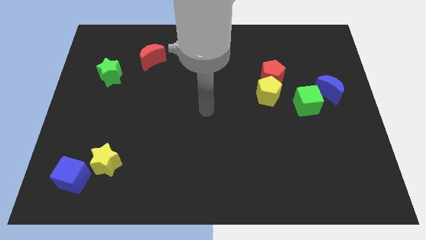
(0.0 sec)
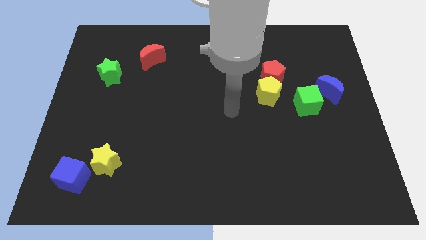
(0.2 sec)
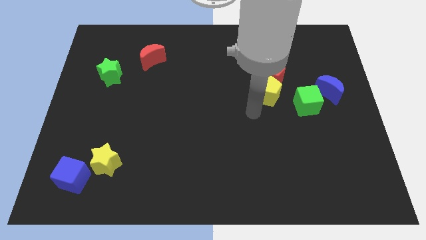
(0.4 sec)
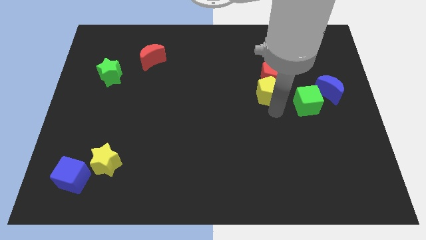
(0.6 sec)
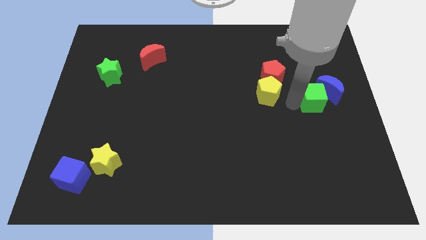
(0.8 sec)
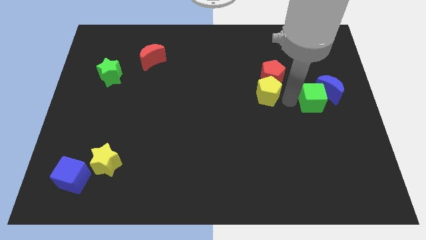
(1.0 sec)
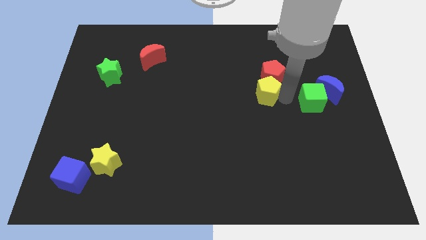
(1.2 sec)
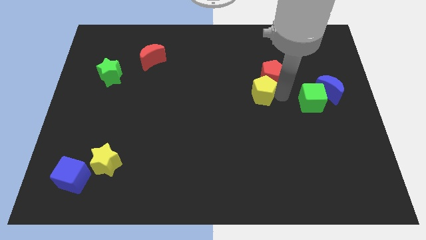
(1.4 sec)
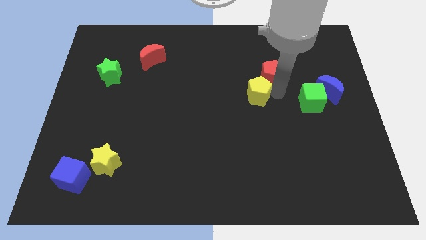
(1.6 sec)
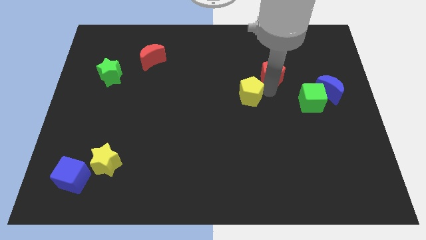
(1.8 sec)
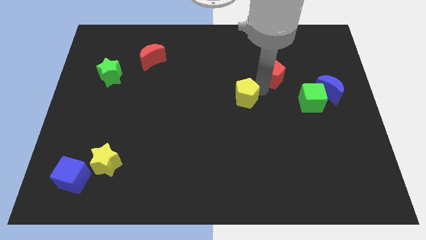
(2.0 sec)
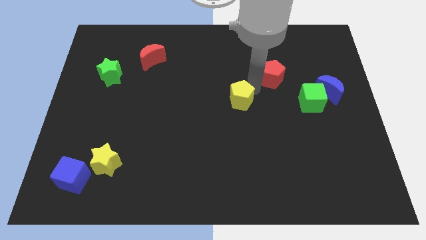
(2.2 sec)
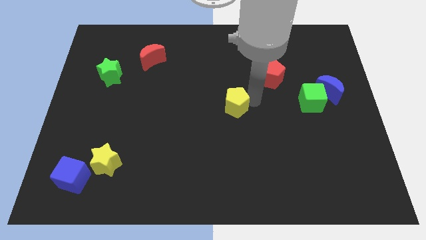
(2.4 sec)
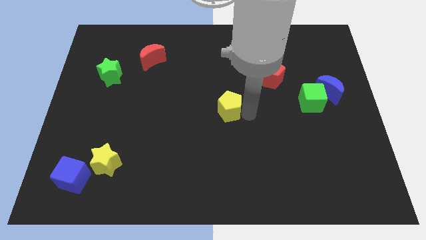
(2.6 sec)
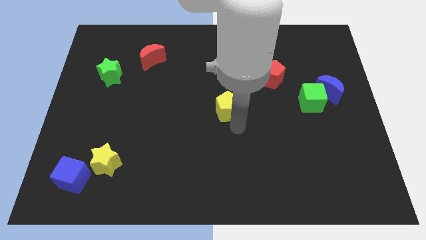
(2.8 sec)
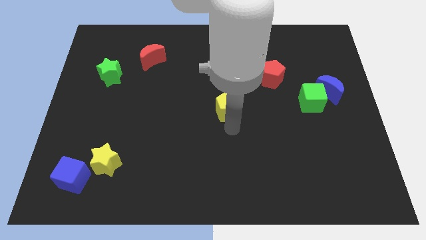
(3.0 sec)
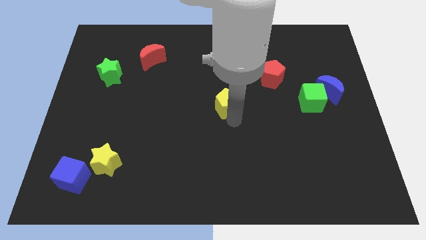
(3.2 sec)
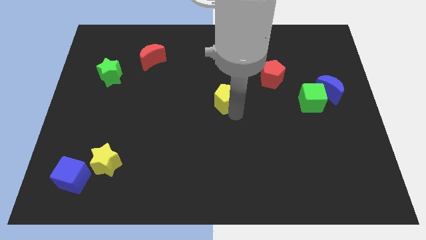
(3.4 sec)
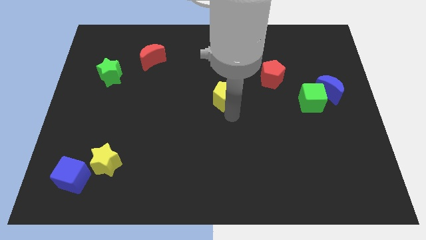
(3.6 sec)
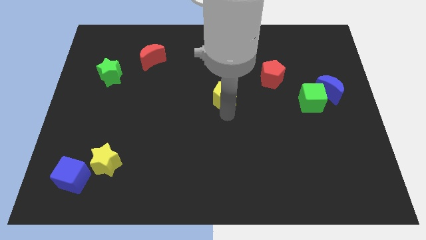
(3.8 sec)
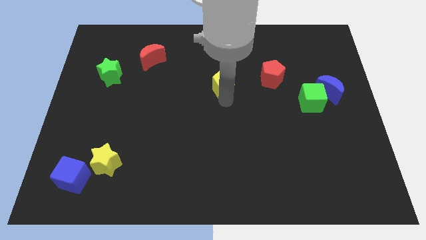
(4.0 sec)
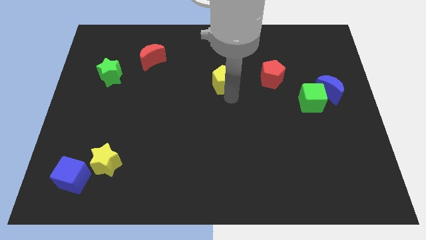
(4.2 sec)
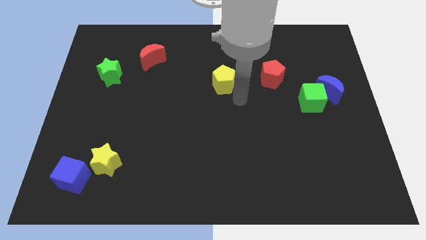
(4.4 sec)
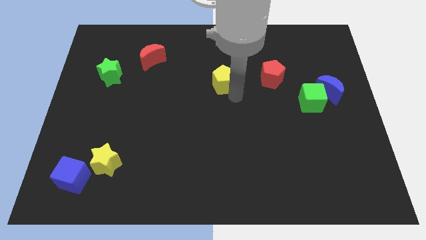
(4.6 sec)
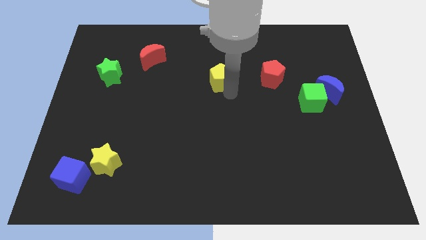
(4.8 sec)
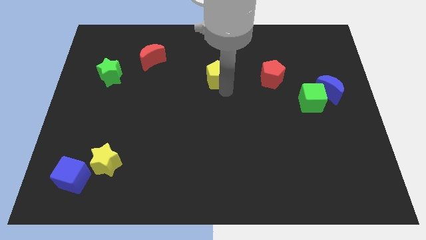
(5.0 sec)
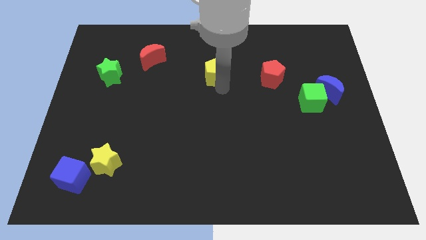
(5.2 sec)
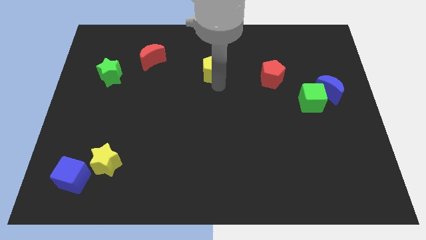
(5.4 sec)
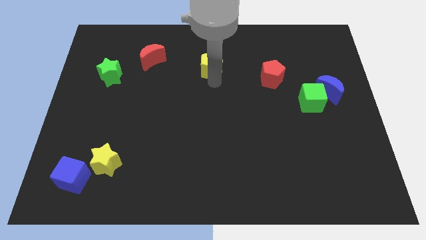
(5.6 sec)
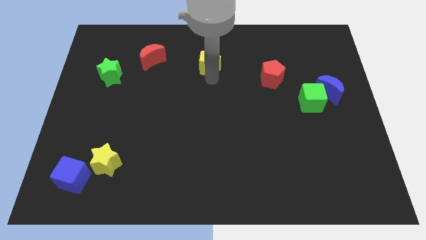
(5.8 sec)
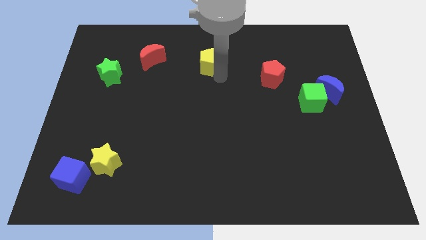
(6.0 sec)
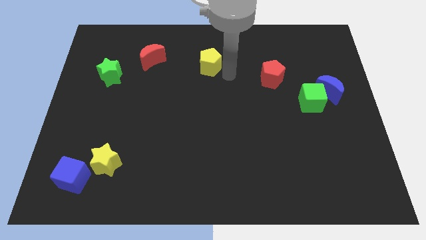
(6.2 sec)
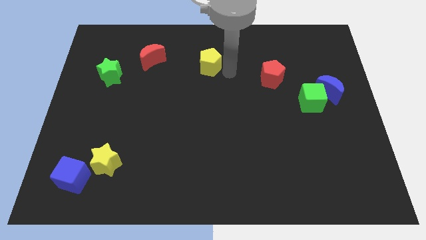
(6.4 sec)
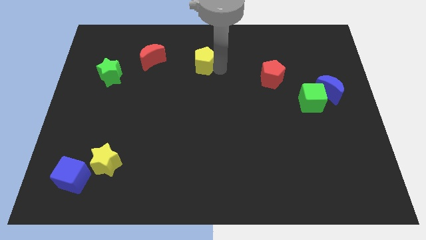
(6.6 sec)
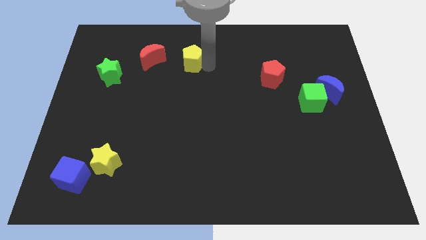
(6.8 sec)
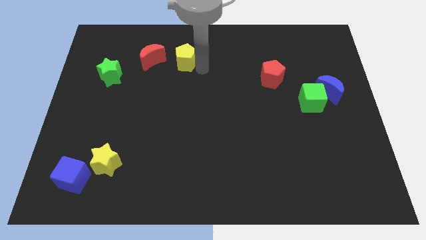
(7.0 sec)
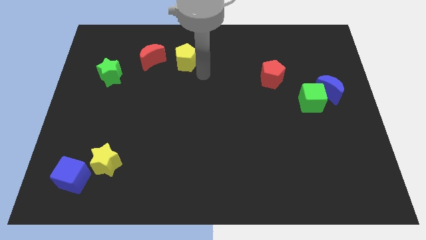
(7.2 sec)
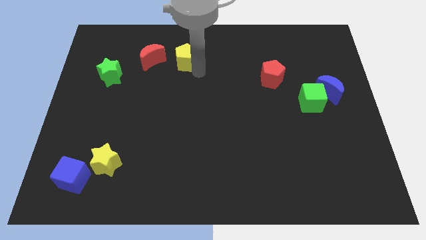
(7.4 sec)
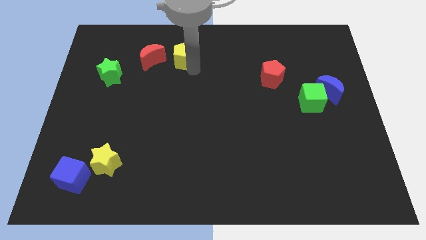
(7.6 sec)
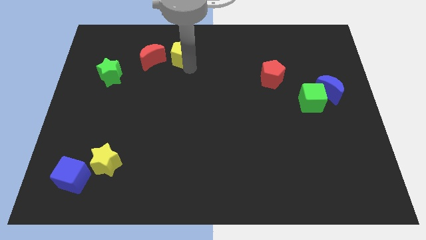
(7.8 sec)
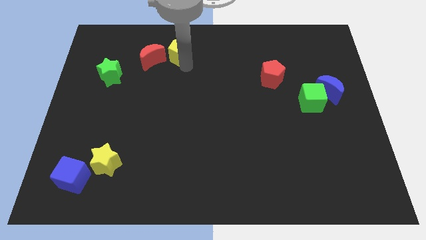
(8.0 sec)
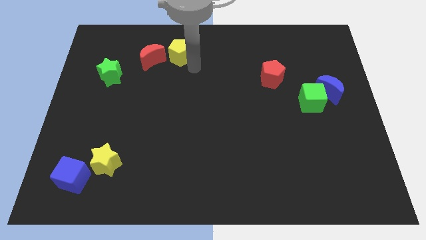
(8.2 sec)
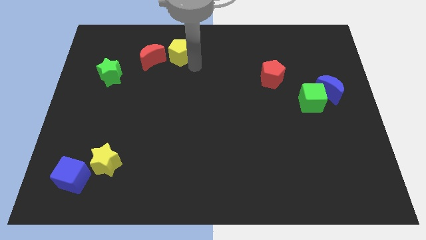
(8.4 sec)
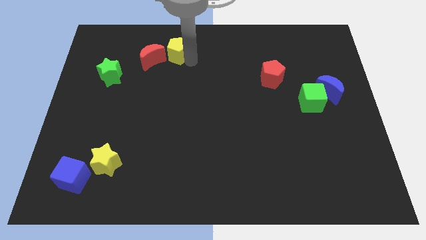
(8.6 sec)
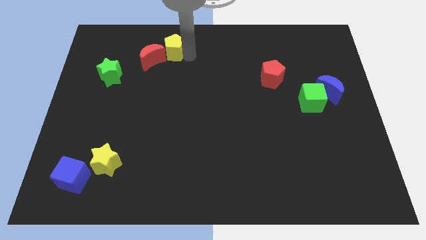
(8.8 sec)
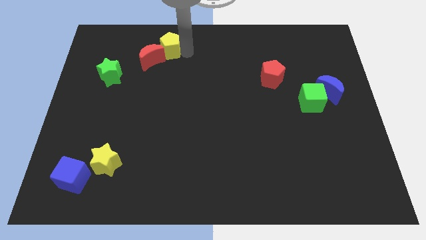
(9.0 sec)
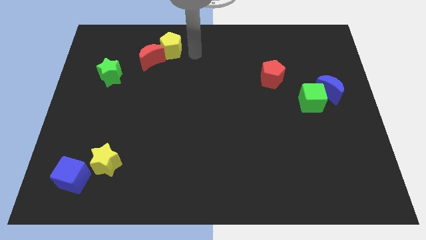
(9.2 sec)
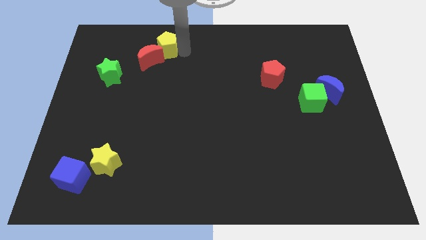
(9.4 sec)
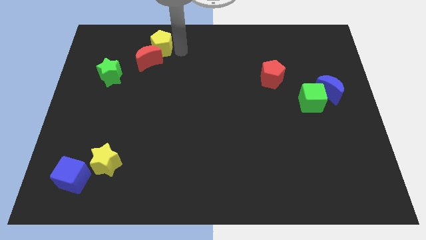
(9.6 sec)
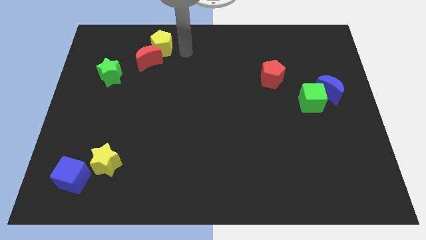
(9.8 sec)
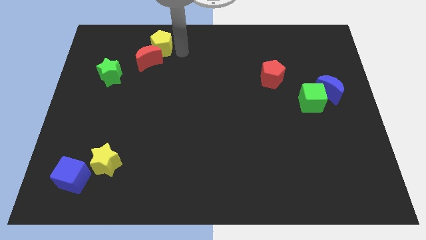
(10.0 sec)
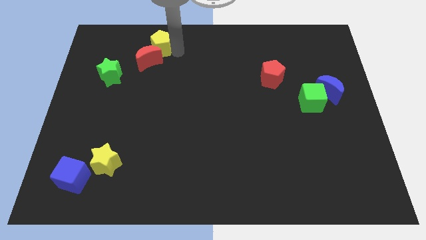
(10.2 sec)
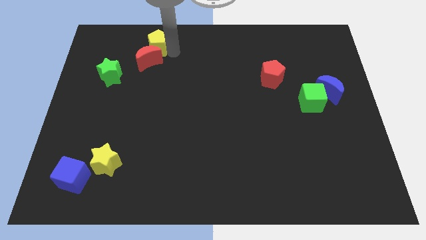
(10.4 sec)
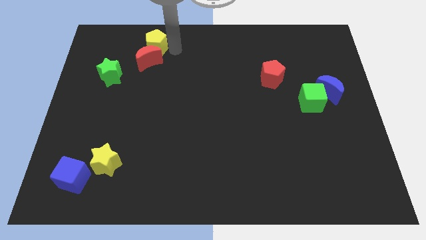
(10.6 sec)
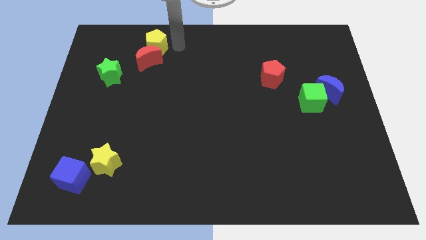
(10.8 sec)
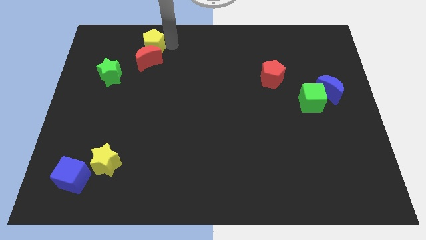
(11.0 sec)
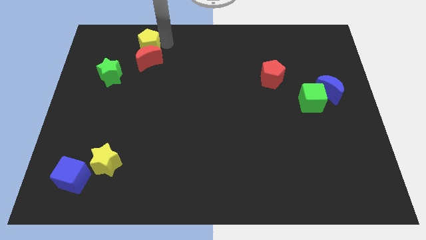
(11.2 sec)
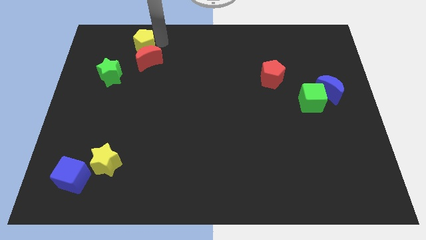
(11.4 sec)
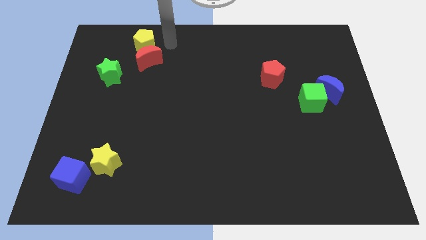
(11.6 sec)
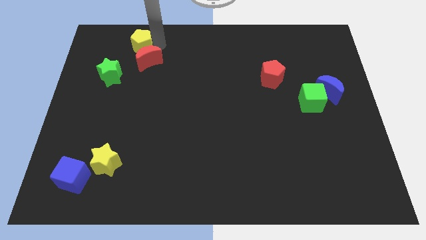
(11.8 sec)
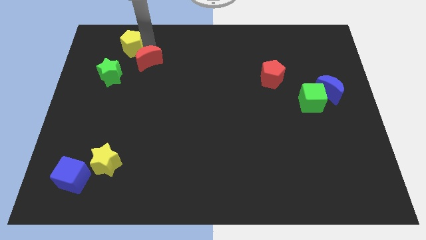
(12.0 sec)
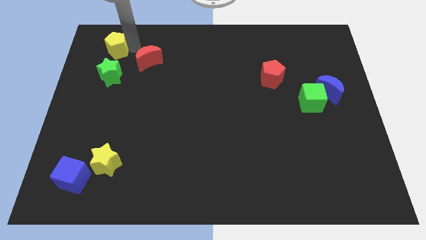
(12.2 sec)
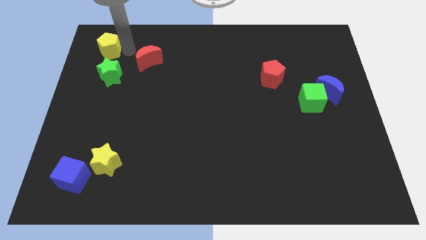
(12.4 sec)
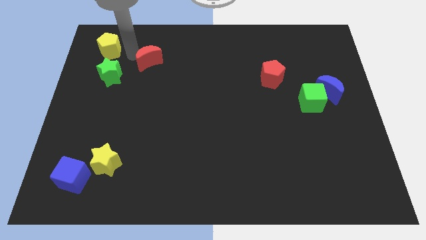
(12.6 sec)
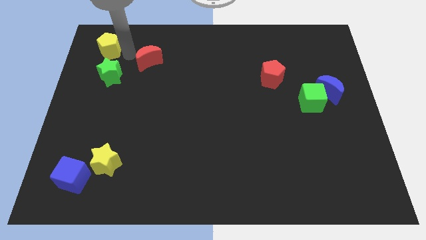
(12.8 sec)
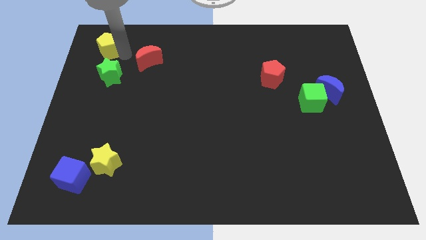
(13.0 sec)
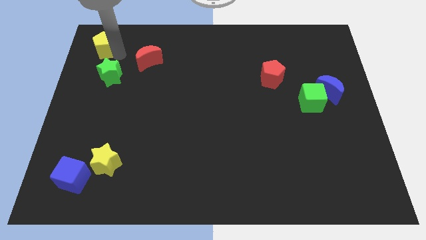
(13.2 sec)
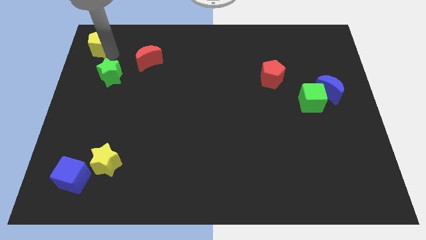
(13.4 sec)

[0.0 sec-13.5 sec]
slide the yellow pentagon to the upper left corner
